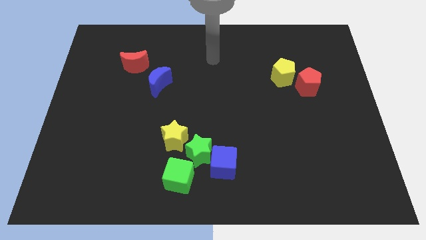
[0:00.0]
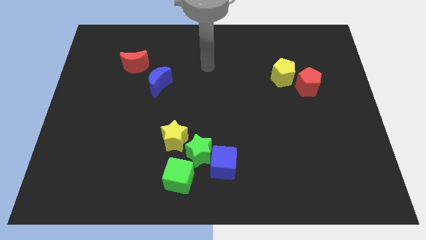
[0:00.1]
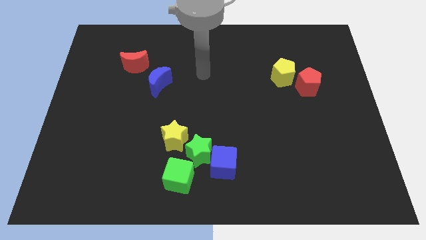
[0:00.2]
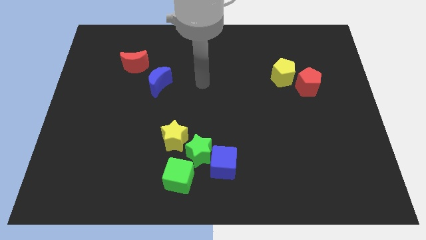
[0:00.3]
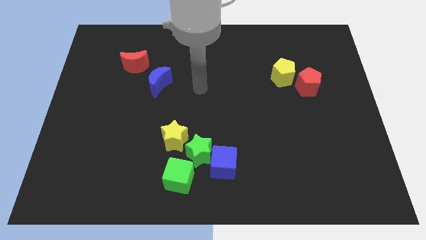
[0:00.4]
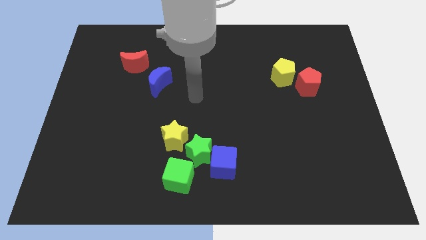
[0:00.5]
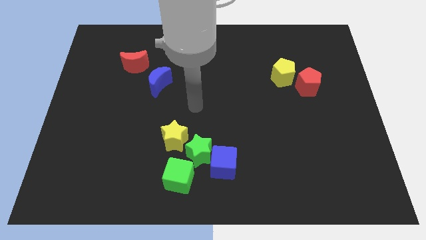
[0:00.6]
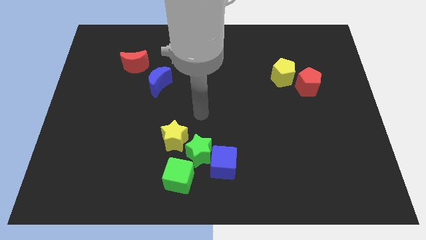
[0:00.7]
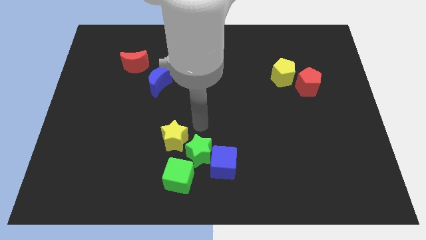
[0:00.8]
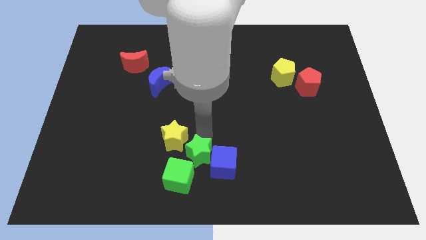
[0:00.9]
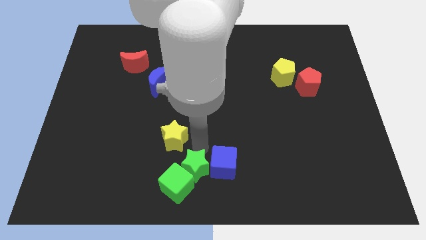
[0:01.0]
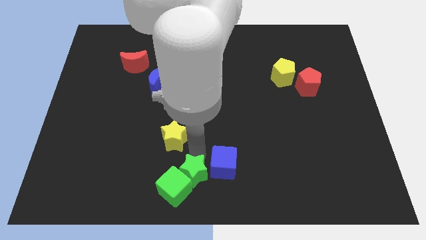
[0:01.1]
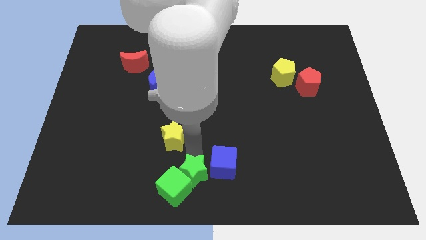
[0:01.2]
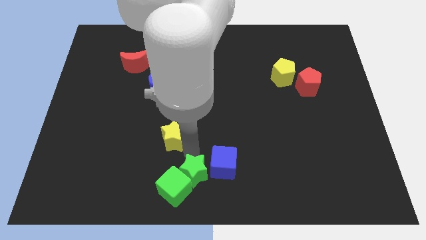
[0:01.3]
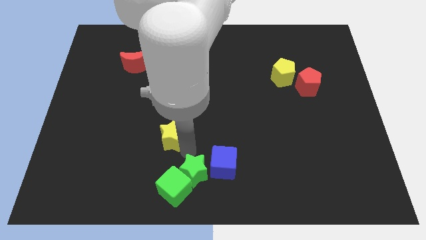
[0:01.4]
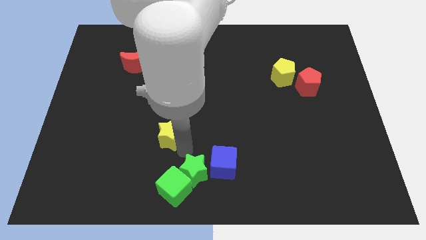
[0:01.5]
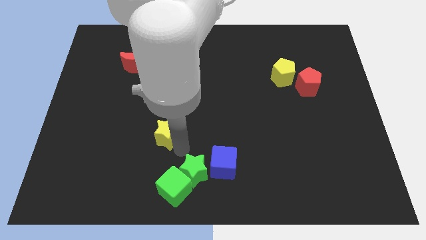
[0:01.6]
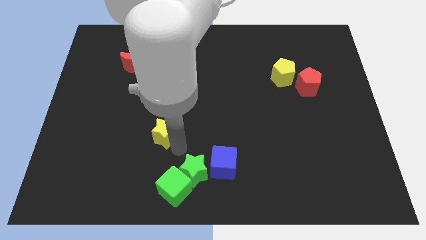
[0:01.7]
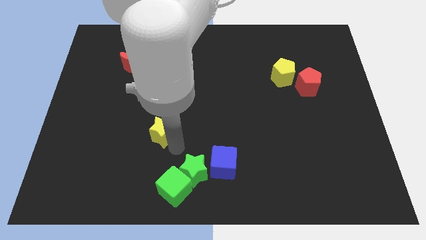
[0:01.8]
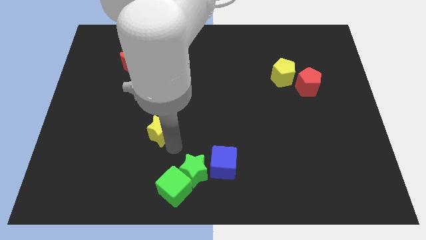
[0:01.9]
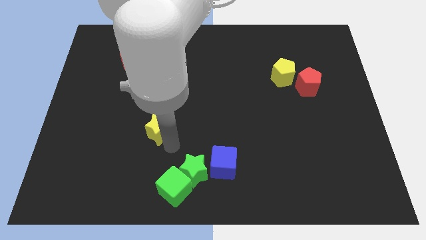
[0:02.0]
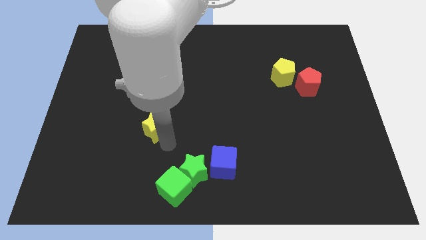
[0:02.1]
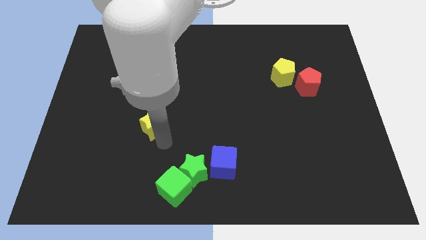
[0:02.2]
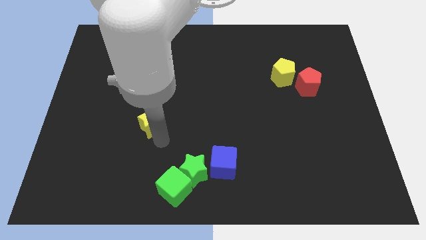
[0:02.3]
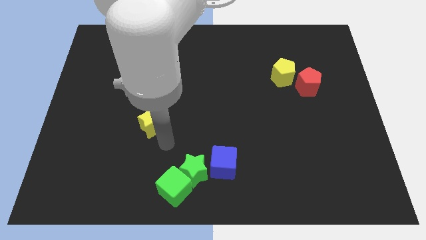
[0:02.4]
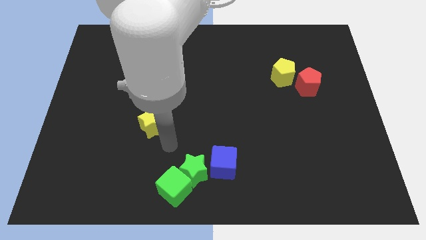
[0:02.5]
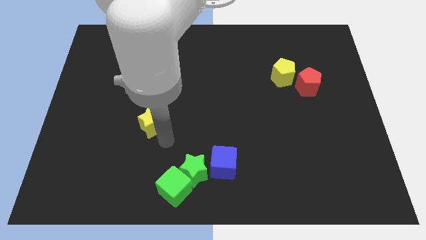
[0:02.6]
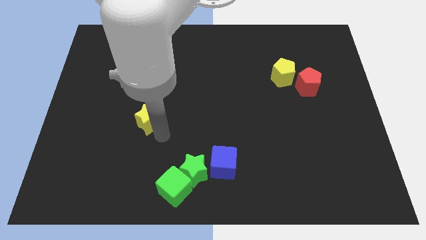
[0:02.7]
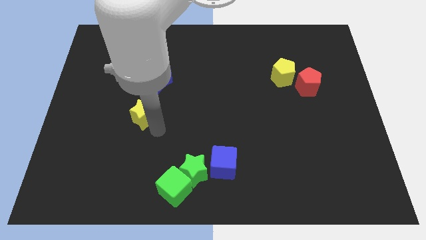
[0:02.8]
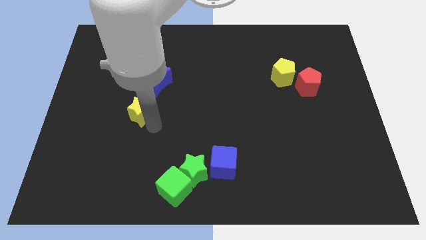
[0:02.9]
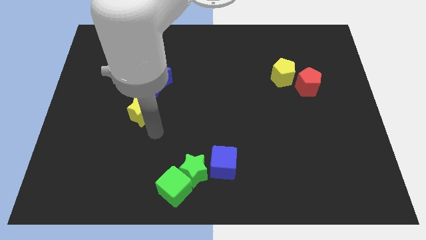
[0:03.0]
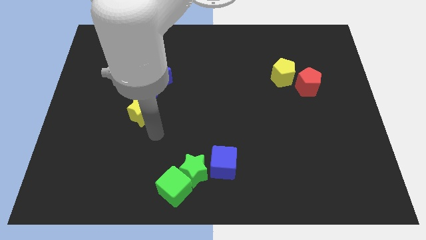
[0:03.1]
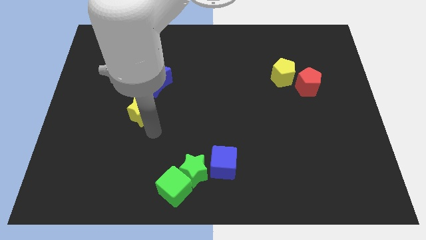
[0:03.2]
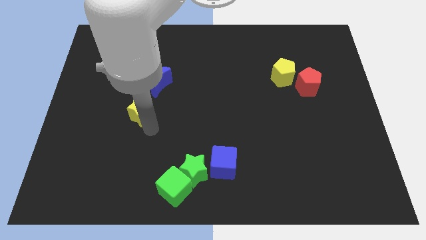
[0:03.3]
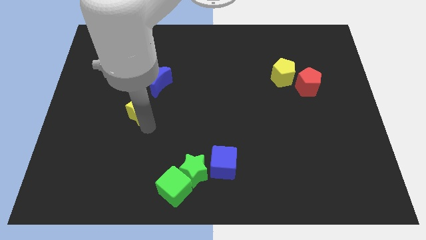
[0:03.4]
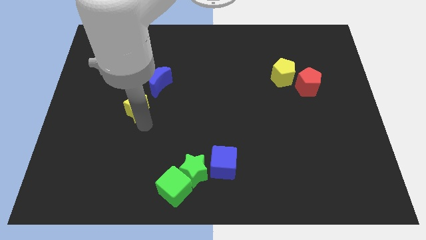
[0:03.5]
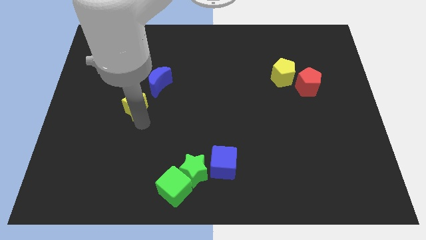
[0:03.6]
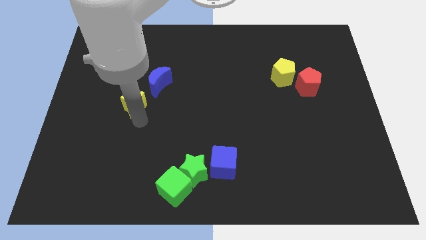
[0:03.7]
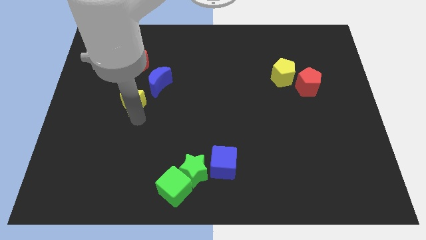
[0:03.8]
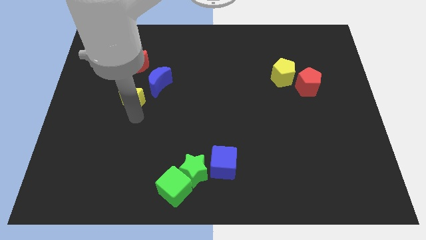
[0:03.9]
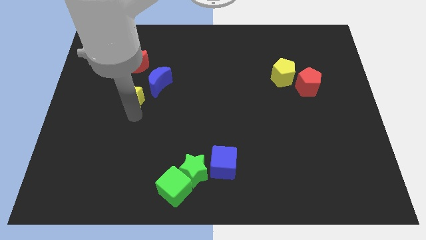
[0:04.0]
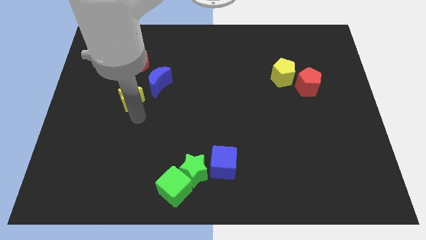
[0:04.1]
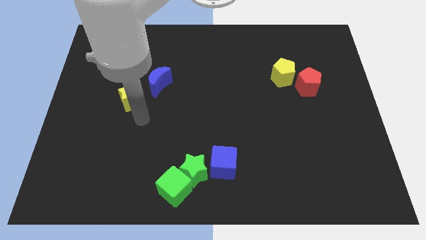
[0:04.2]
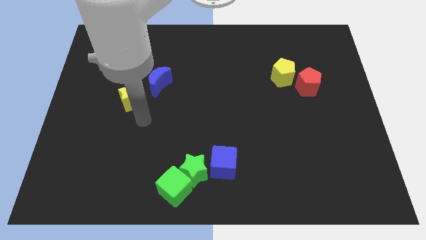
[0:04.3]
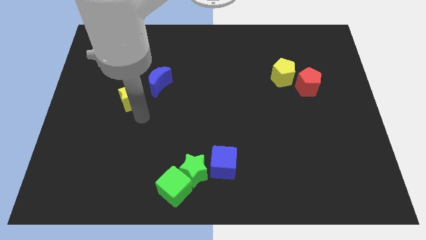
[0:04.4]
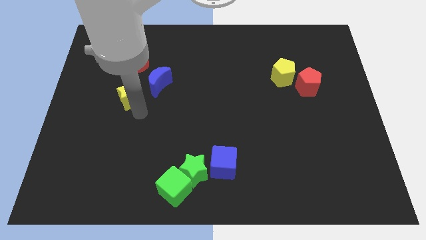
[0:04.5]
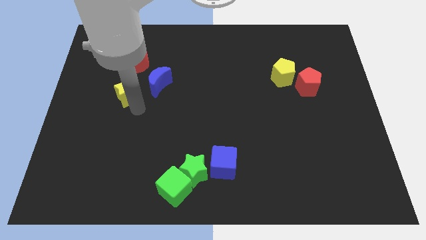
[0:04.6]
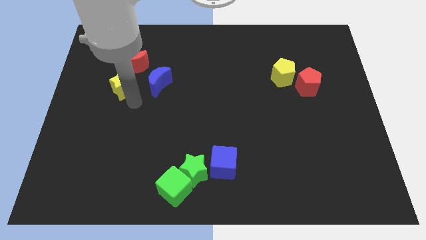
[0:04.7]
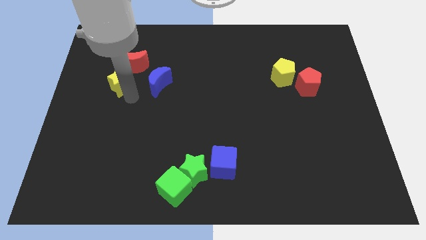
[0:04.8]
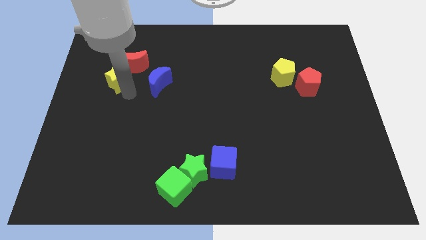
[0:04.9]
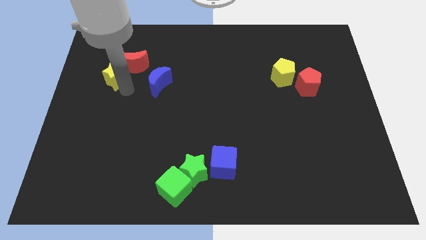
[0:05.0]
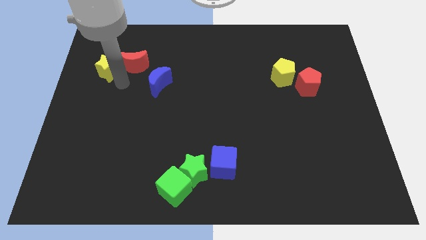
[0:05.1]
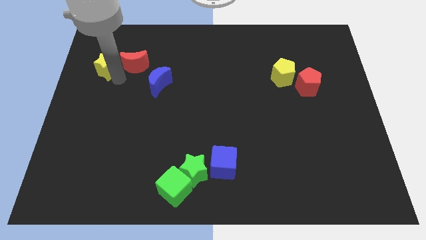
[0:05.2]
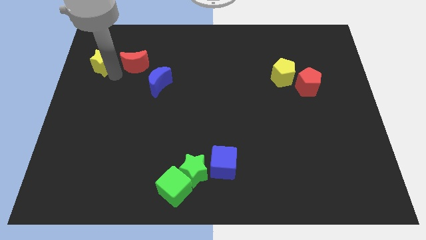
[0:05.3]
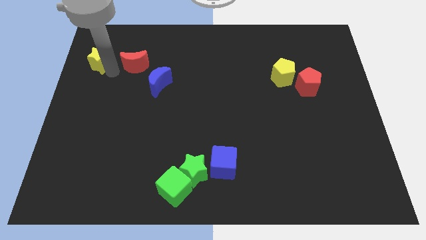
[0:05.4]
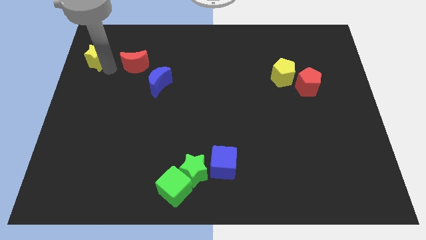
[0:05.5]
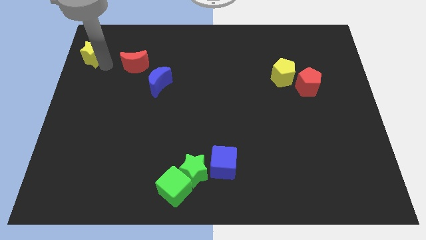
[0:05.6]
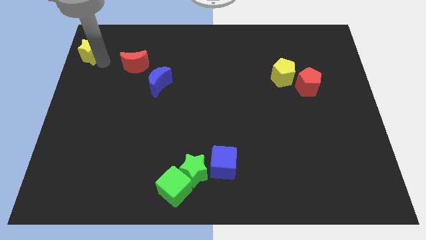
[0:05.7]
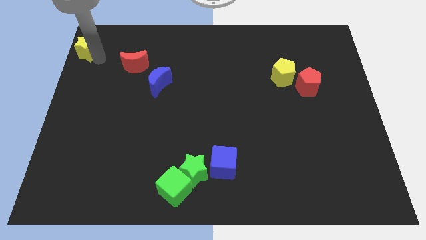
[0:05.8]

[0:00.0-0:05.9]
push the yellow star to the top left corner
